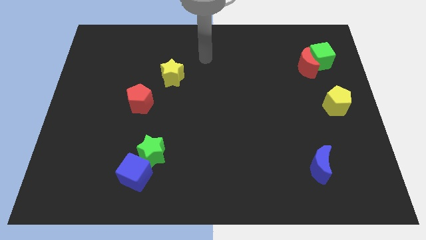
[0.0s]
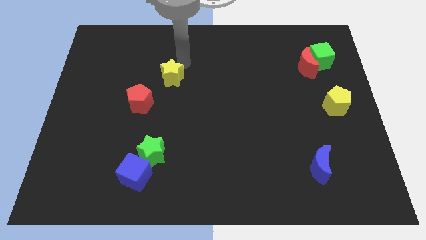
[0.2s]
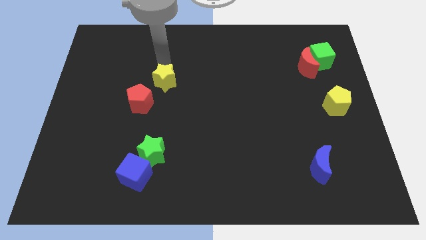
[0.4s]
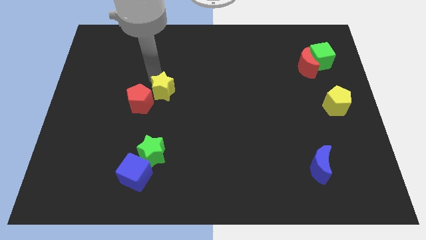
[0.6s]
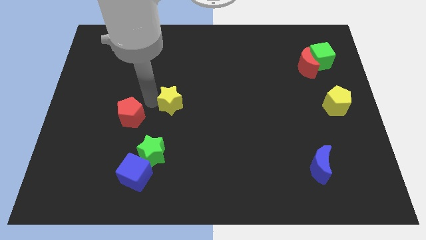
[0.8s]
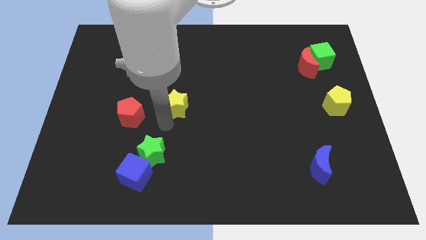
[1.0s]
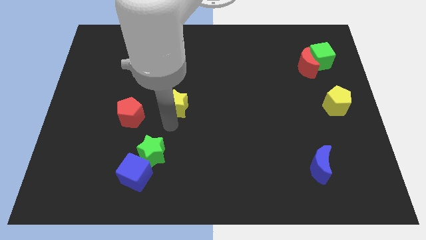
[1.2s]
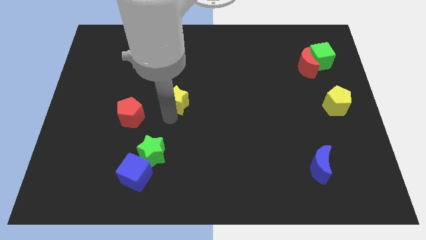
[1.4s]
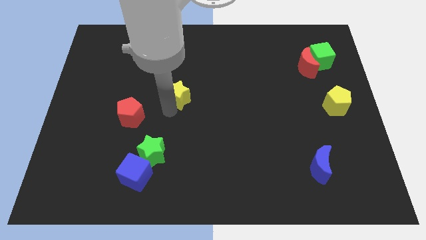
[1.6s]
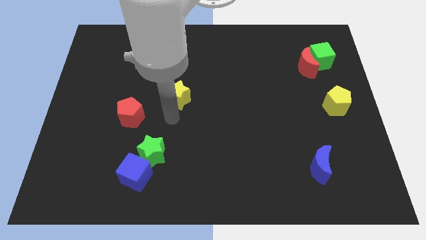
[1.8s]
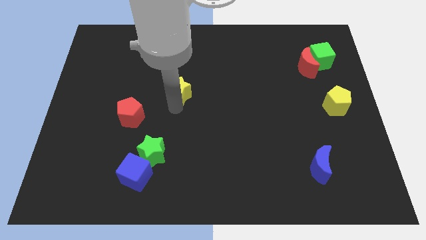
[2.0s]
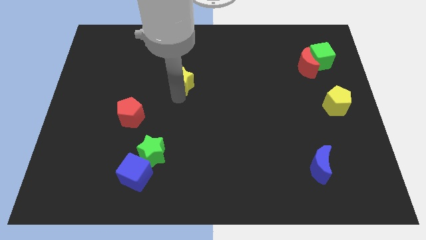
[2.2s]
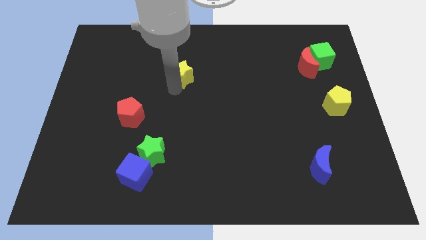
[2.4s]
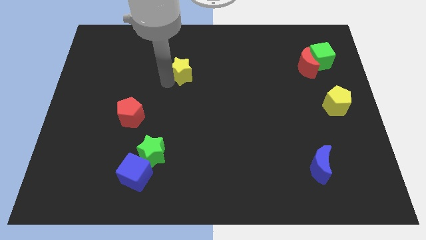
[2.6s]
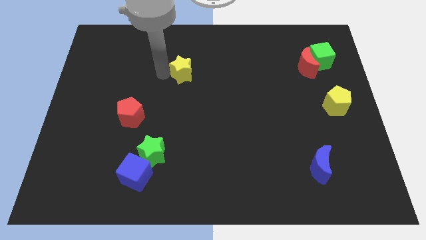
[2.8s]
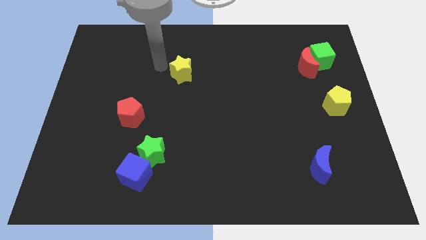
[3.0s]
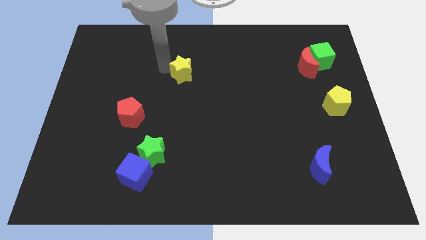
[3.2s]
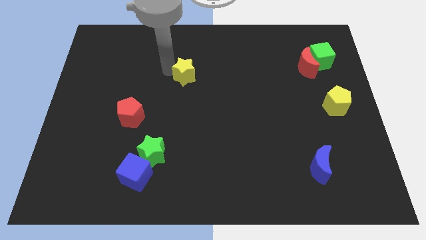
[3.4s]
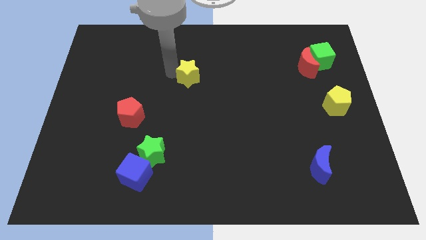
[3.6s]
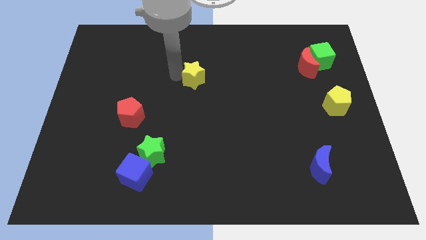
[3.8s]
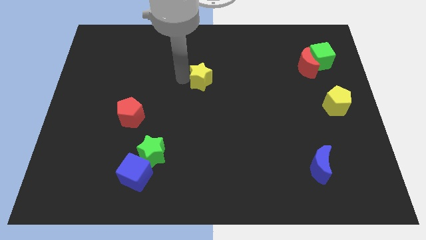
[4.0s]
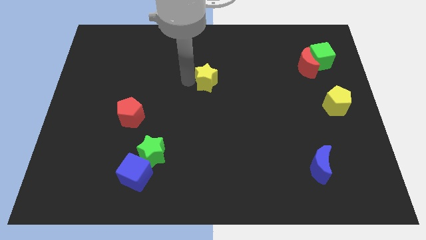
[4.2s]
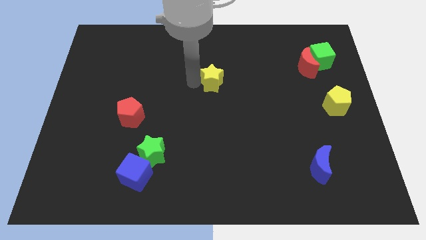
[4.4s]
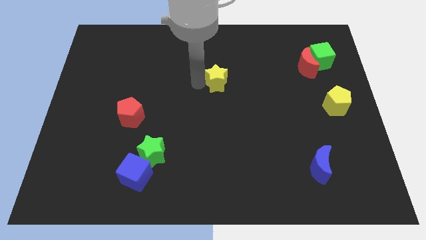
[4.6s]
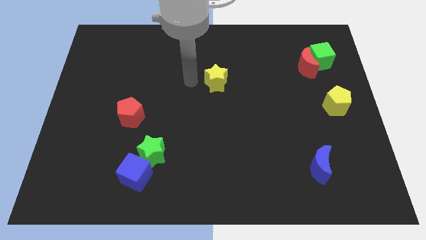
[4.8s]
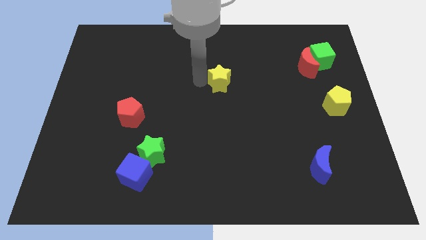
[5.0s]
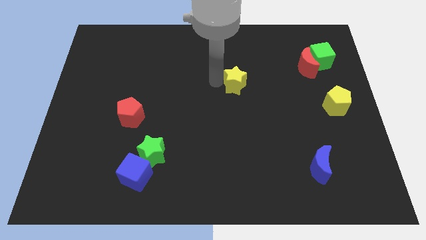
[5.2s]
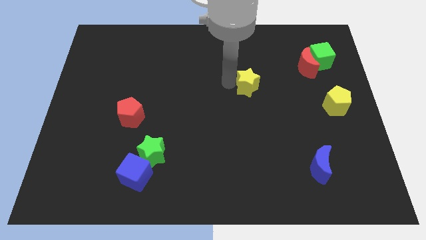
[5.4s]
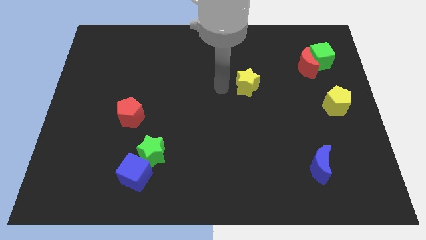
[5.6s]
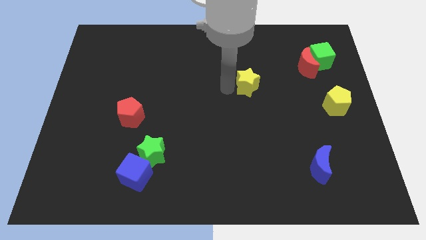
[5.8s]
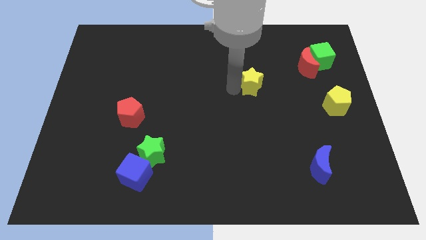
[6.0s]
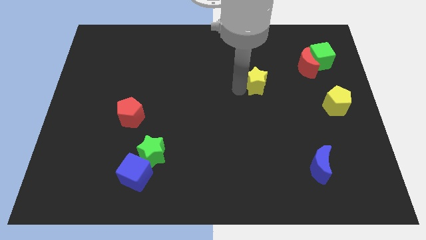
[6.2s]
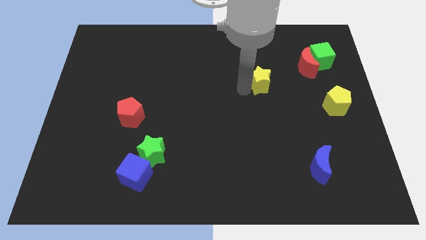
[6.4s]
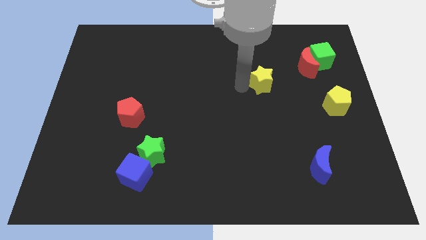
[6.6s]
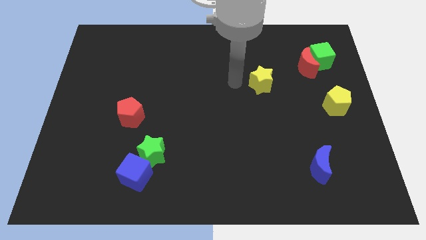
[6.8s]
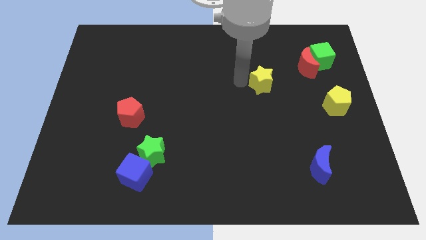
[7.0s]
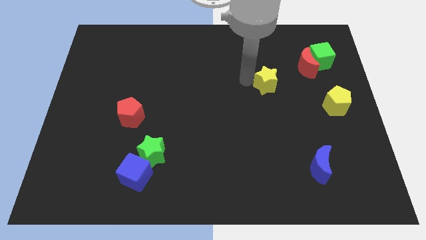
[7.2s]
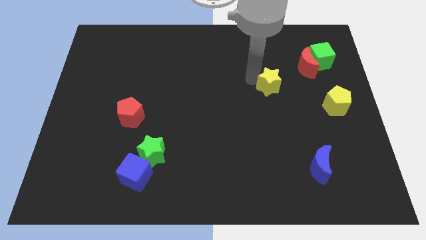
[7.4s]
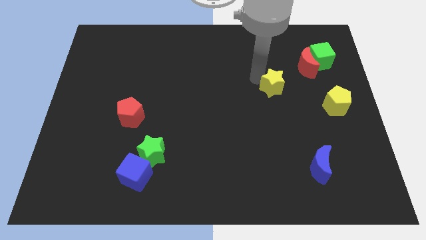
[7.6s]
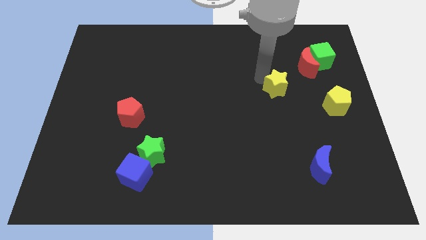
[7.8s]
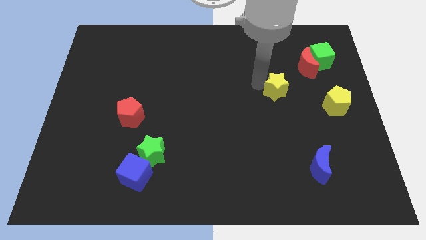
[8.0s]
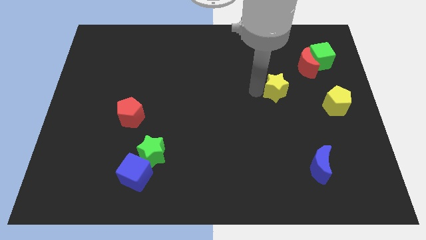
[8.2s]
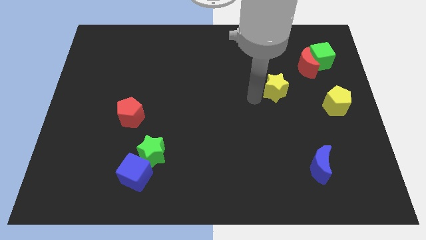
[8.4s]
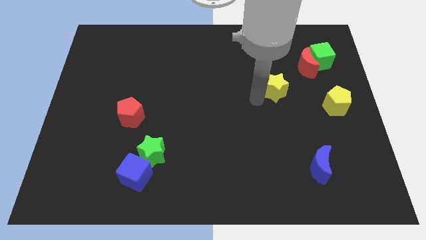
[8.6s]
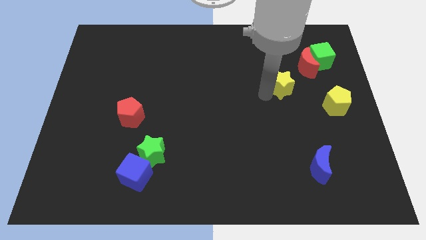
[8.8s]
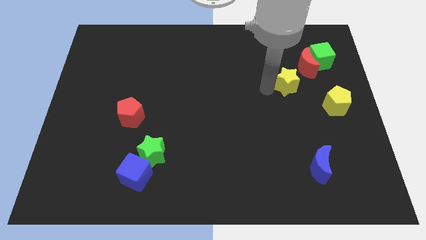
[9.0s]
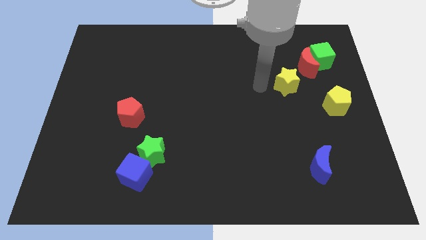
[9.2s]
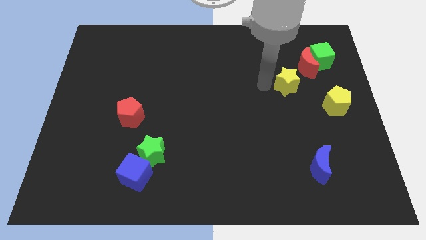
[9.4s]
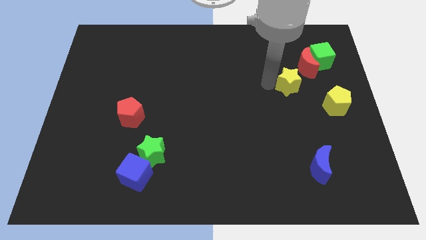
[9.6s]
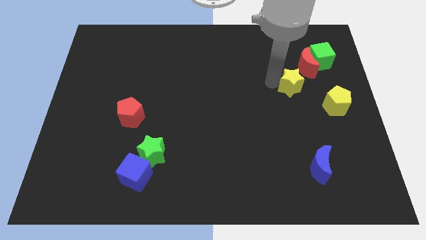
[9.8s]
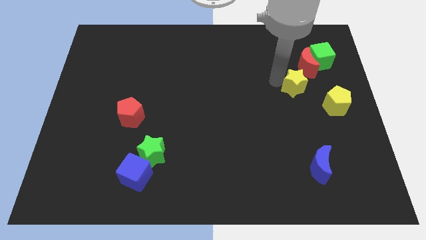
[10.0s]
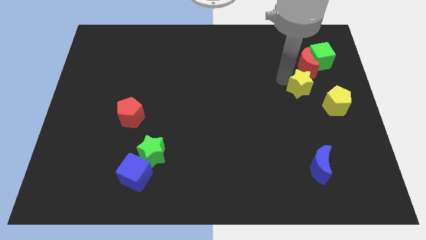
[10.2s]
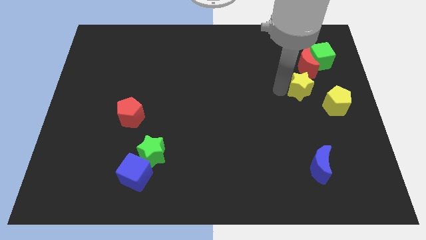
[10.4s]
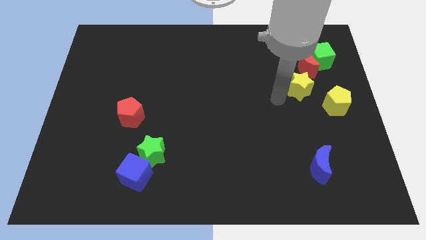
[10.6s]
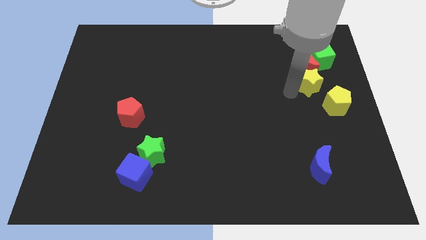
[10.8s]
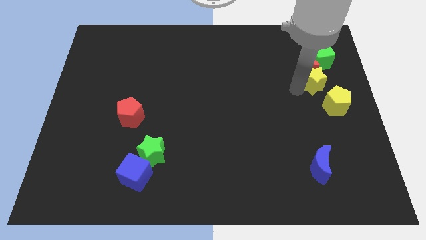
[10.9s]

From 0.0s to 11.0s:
slide the yellow star to the top side of the yellow pentagon

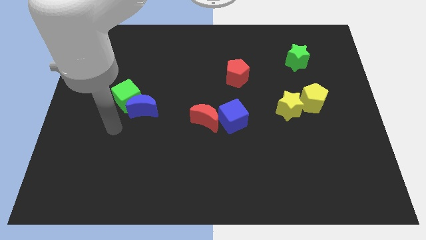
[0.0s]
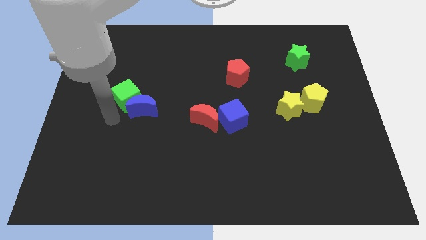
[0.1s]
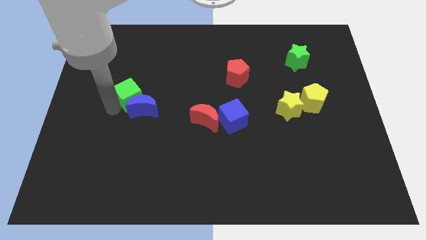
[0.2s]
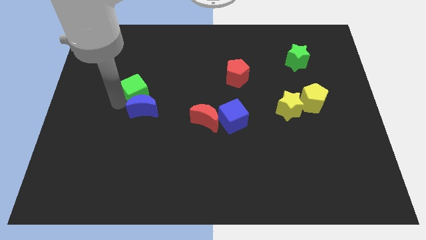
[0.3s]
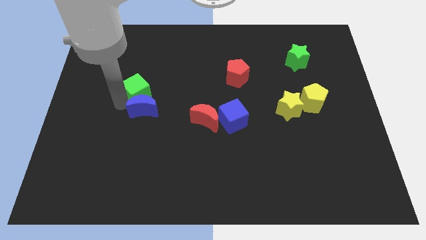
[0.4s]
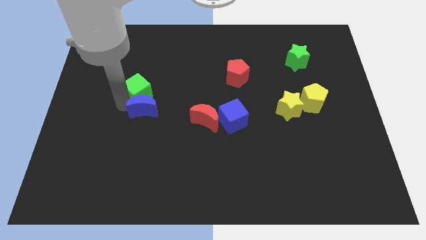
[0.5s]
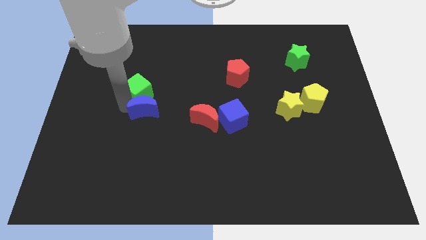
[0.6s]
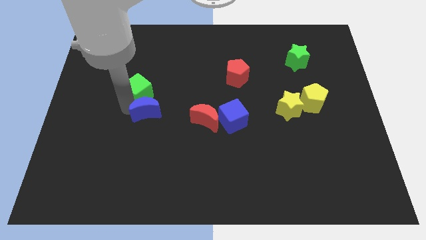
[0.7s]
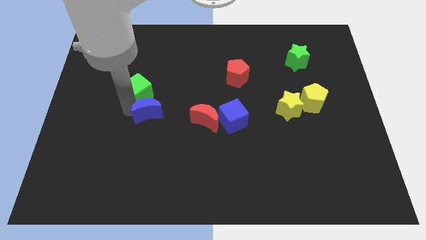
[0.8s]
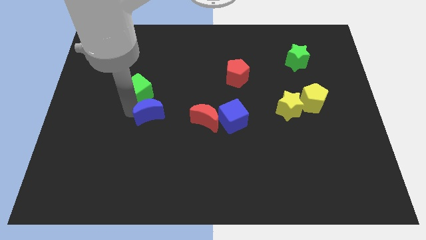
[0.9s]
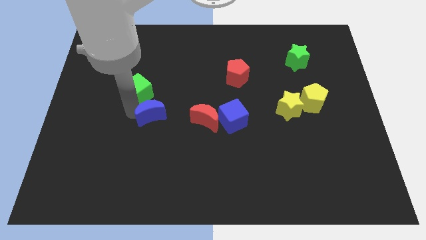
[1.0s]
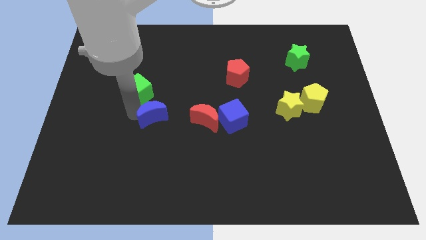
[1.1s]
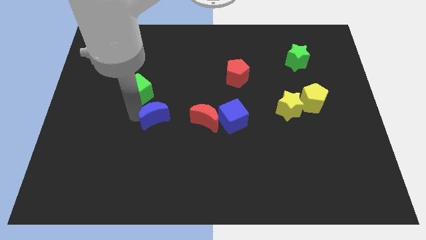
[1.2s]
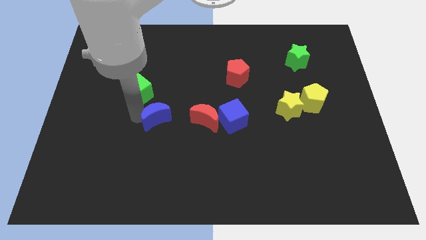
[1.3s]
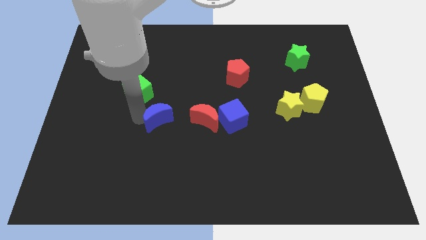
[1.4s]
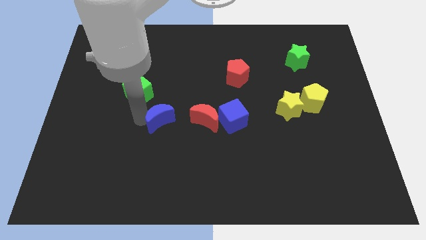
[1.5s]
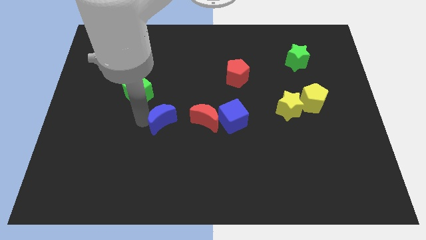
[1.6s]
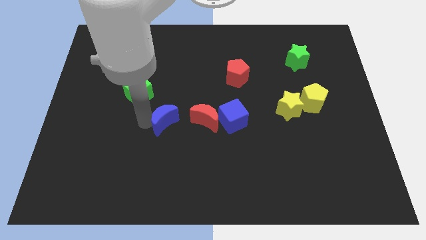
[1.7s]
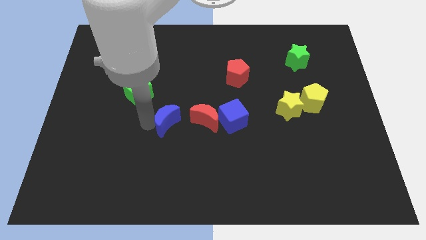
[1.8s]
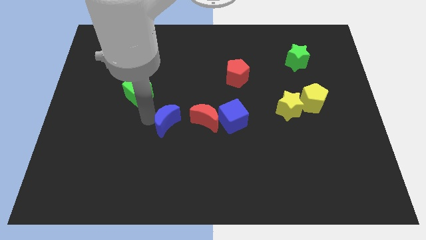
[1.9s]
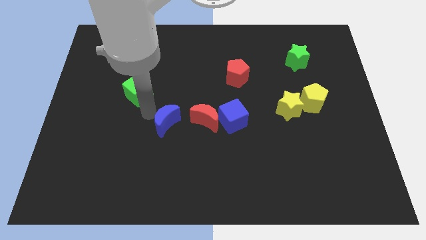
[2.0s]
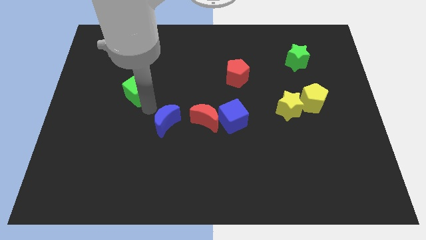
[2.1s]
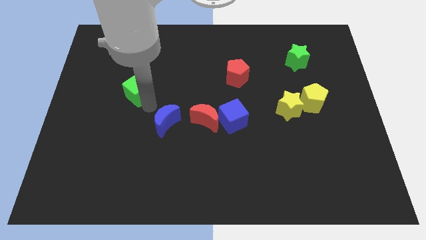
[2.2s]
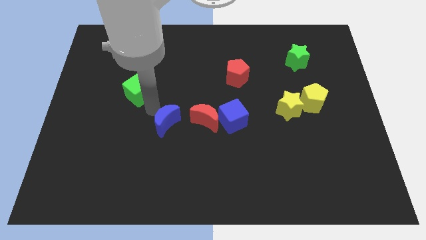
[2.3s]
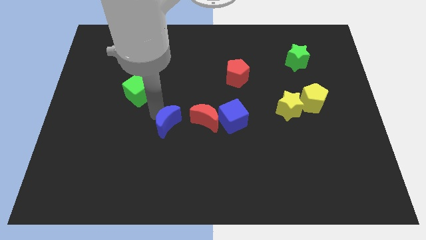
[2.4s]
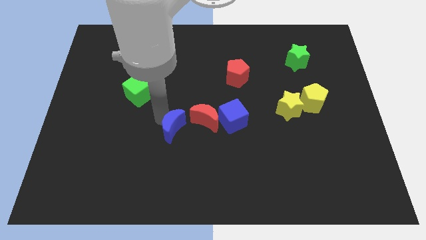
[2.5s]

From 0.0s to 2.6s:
put the blue moon to the bottom left of the red moon
